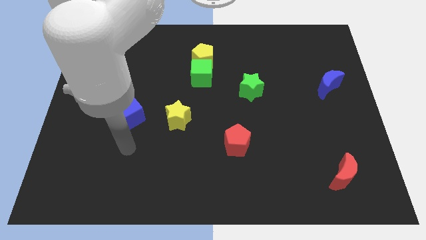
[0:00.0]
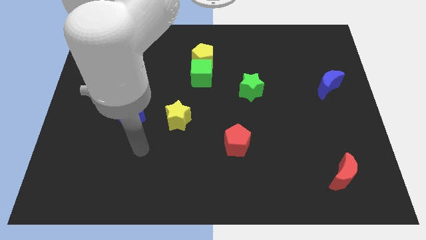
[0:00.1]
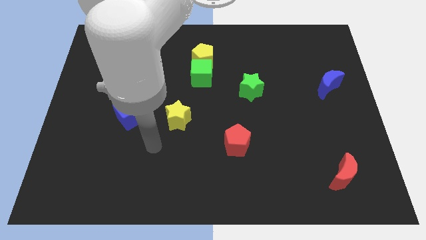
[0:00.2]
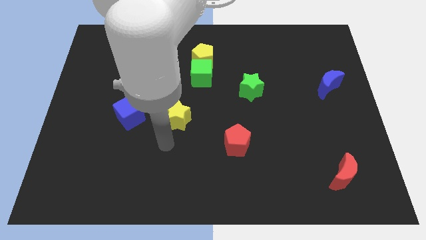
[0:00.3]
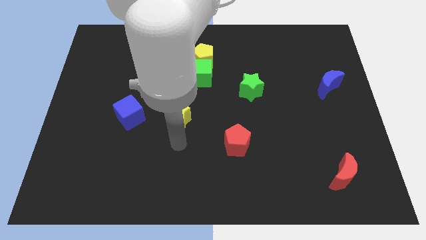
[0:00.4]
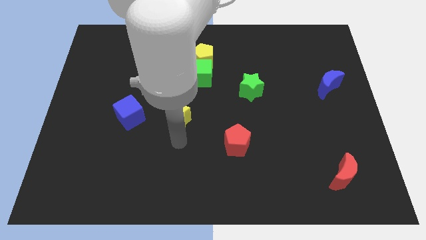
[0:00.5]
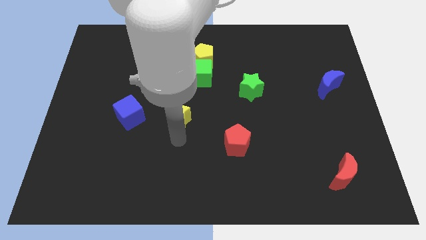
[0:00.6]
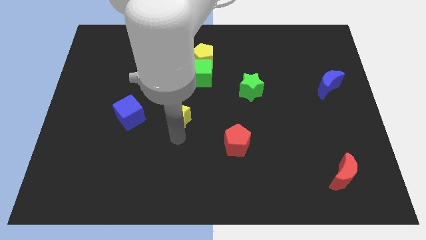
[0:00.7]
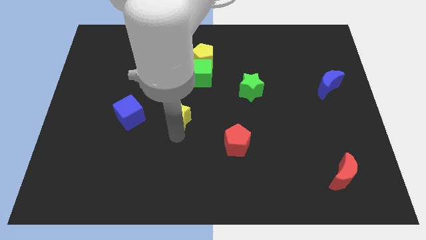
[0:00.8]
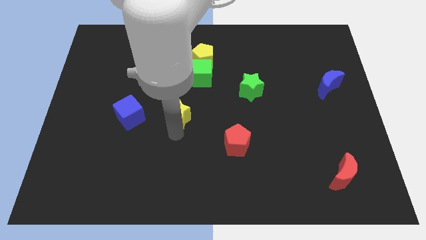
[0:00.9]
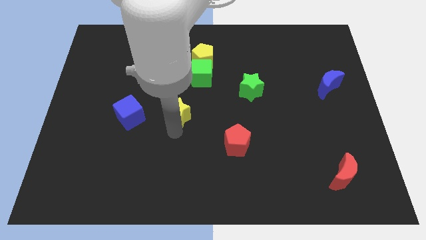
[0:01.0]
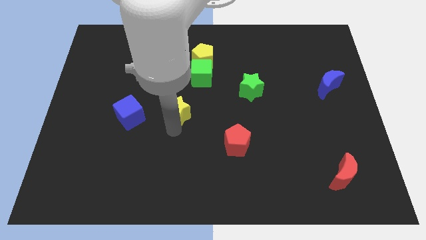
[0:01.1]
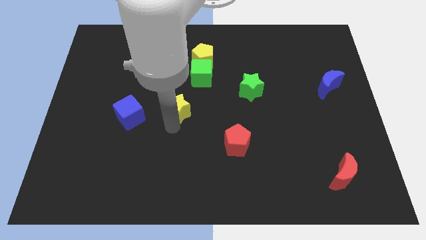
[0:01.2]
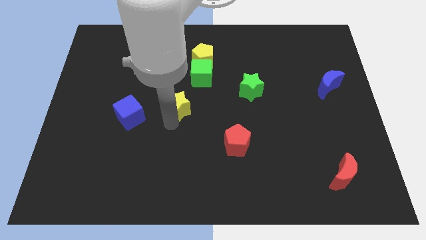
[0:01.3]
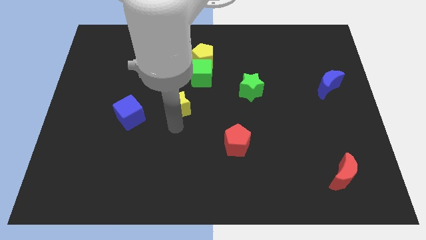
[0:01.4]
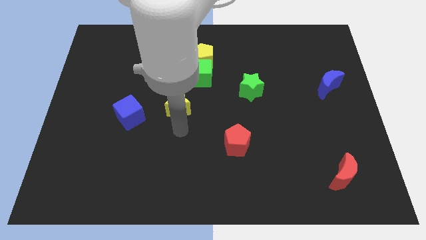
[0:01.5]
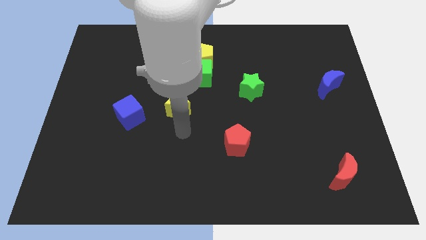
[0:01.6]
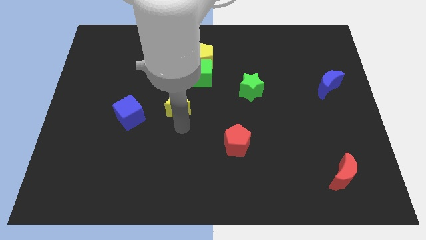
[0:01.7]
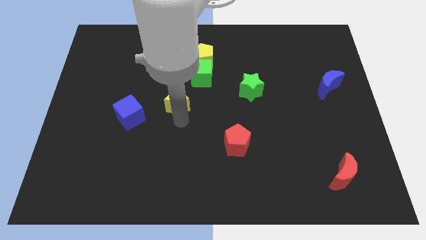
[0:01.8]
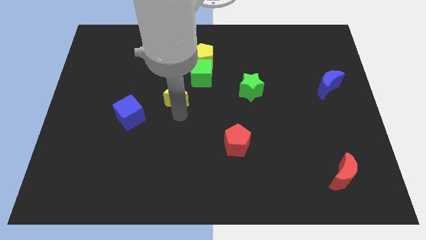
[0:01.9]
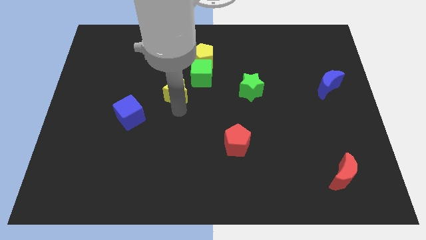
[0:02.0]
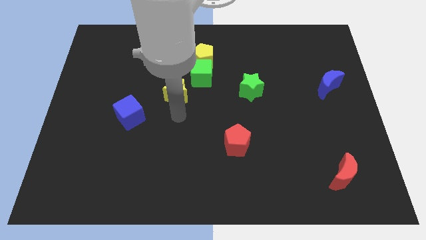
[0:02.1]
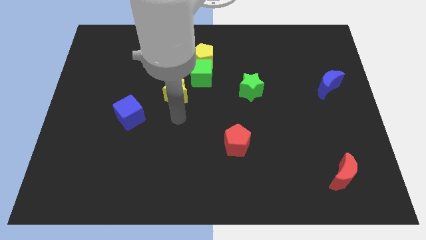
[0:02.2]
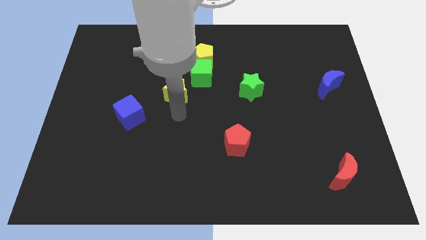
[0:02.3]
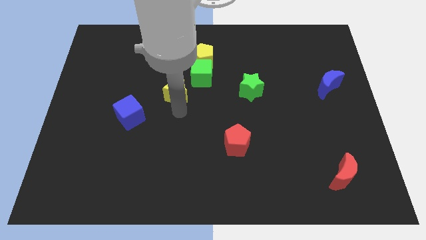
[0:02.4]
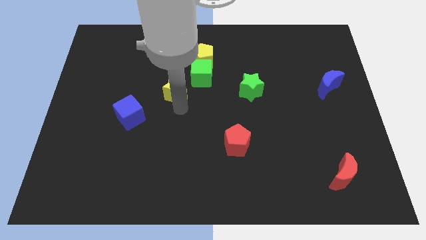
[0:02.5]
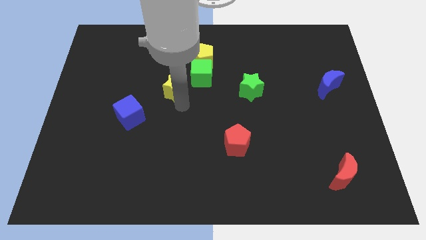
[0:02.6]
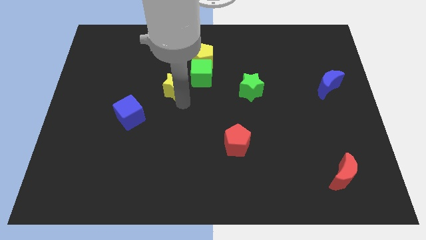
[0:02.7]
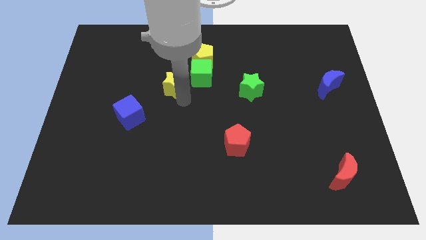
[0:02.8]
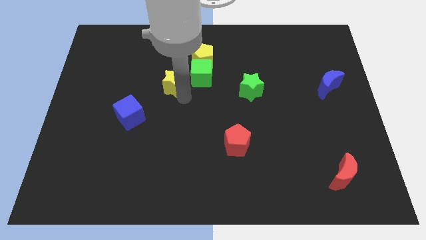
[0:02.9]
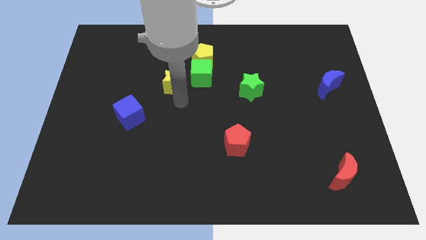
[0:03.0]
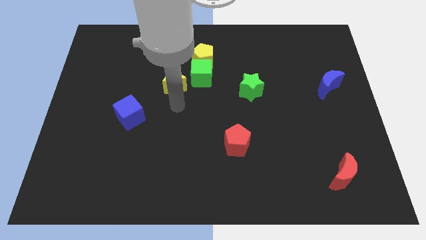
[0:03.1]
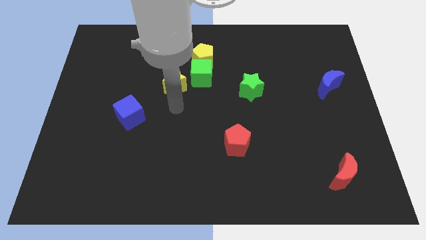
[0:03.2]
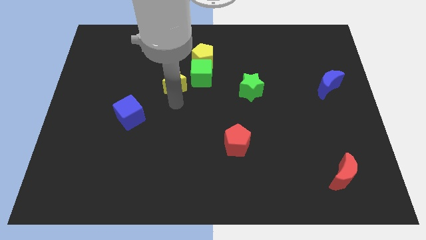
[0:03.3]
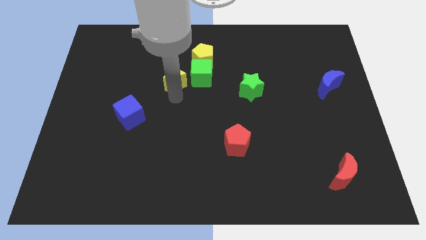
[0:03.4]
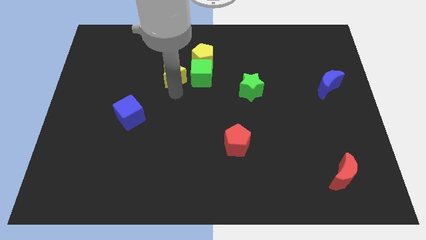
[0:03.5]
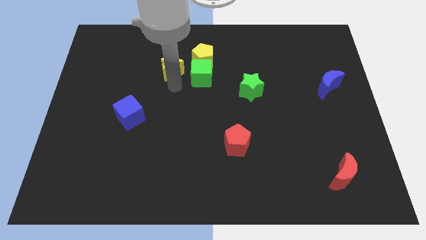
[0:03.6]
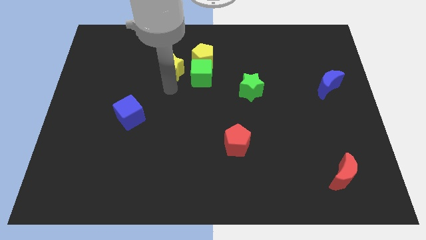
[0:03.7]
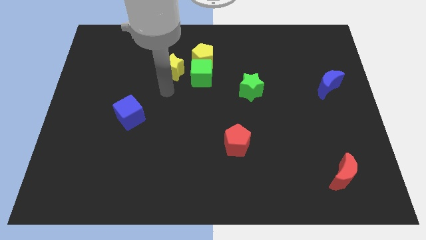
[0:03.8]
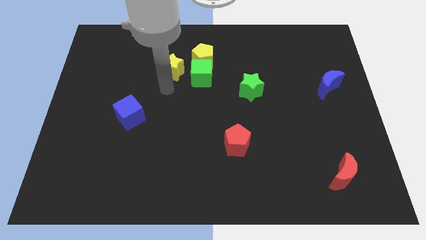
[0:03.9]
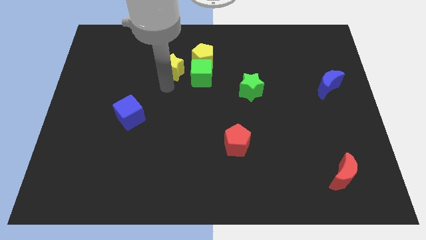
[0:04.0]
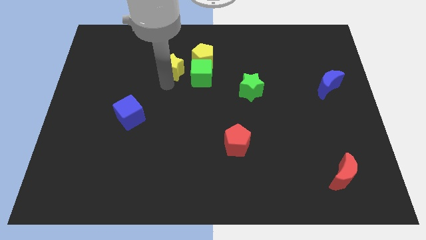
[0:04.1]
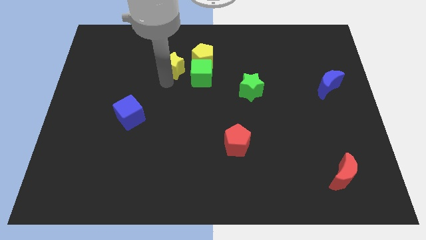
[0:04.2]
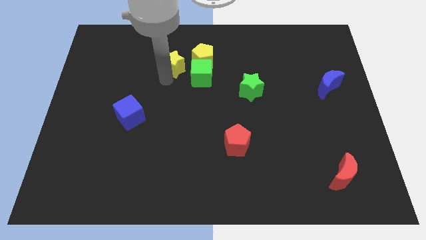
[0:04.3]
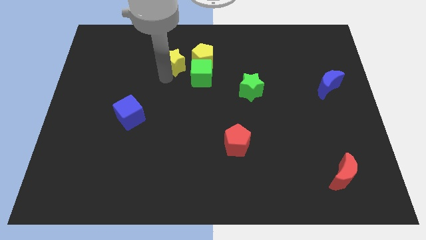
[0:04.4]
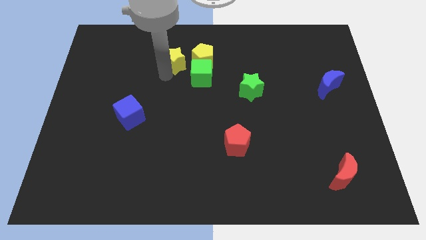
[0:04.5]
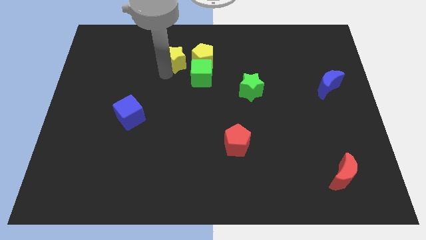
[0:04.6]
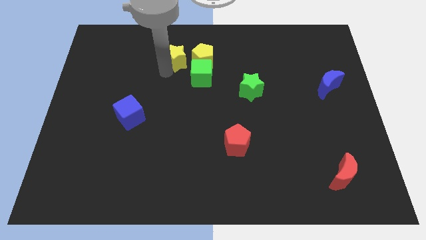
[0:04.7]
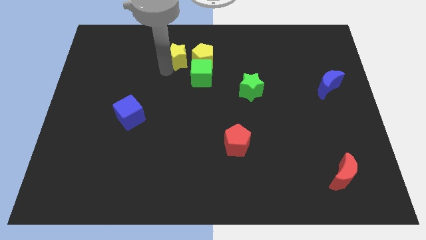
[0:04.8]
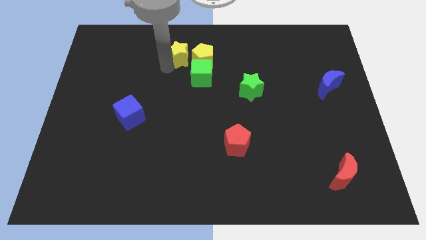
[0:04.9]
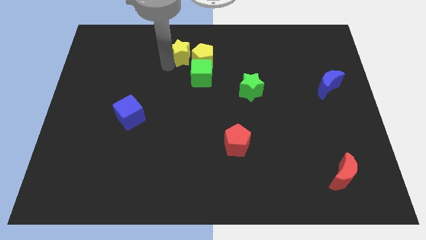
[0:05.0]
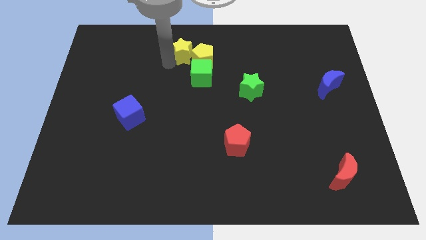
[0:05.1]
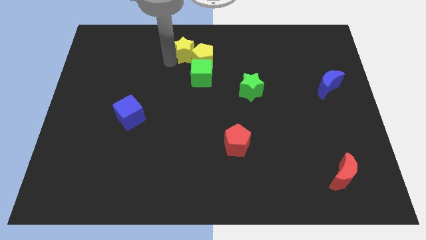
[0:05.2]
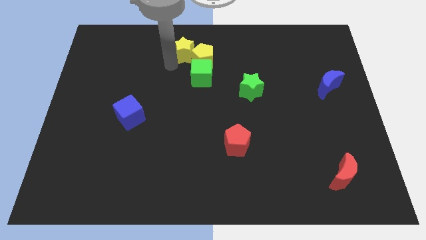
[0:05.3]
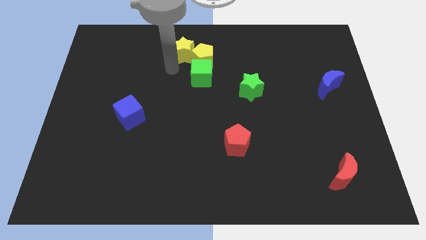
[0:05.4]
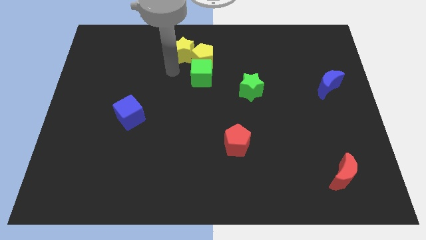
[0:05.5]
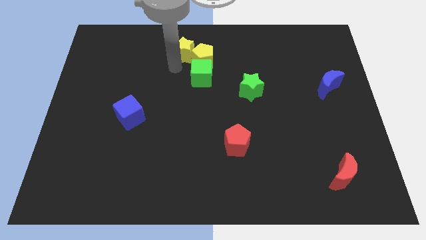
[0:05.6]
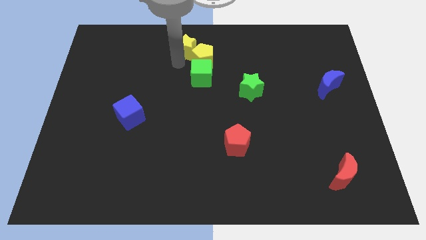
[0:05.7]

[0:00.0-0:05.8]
slide the yellow star to the top side

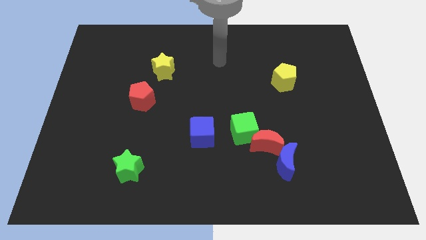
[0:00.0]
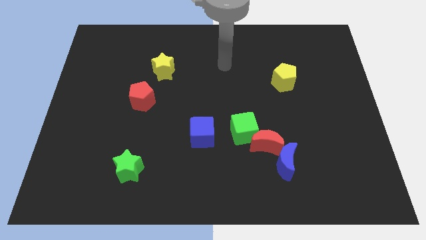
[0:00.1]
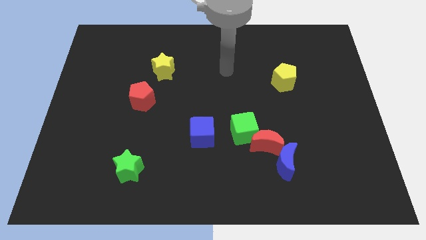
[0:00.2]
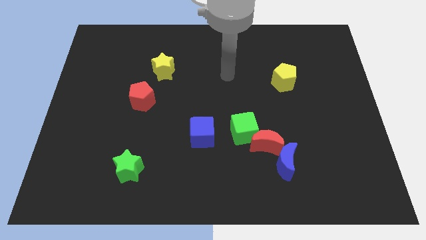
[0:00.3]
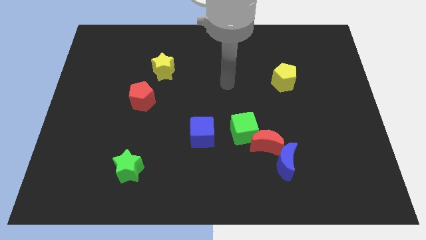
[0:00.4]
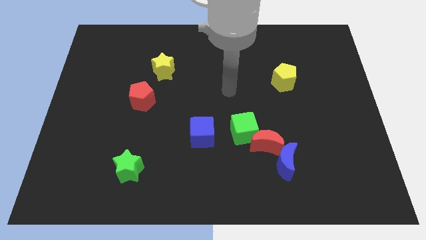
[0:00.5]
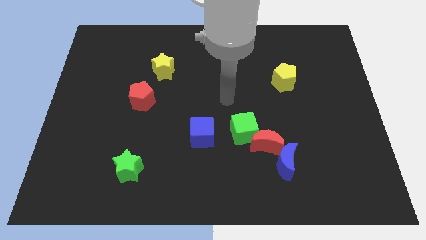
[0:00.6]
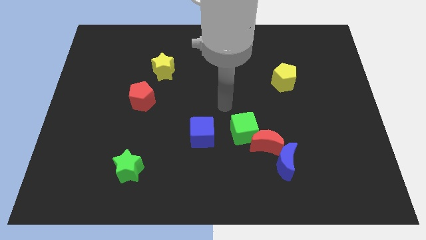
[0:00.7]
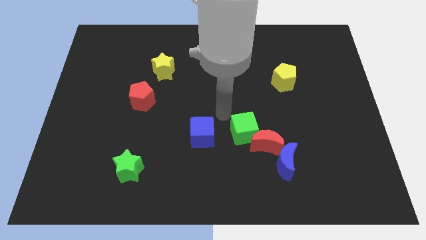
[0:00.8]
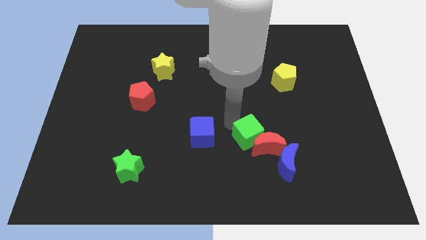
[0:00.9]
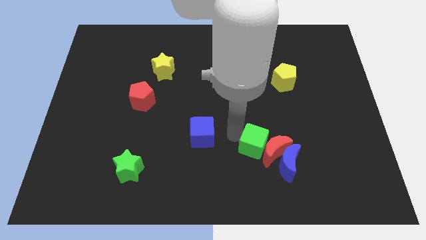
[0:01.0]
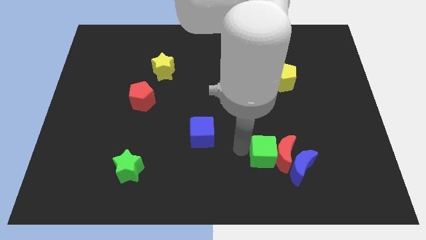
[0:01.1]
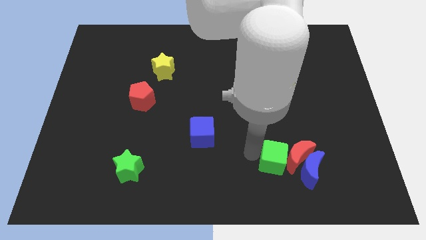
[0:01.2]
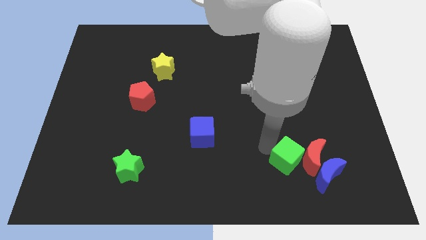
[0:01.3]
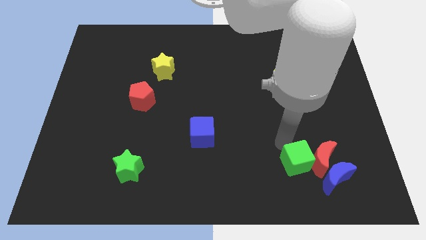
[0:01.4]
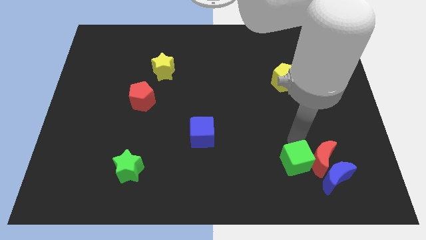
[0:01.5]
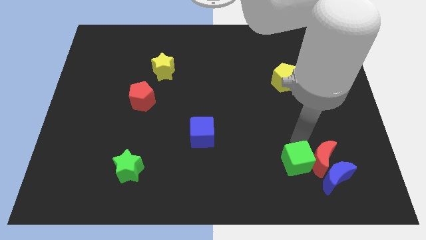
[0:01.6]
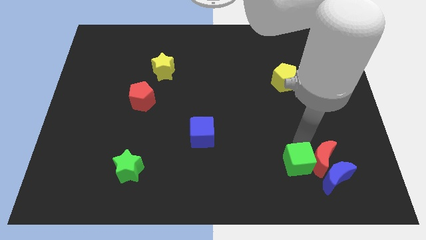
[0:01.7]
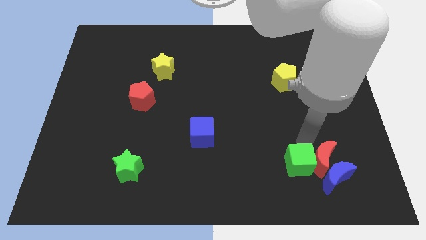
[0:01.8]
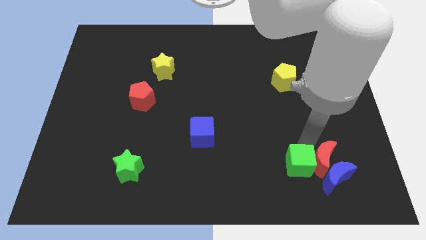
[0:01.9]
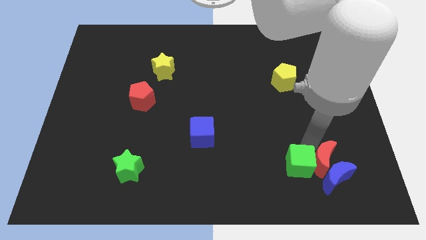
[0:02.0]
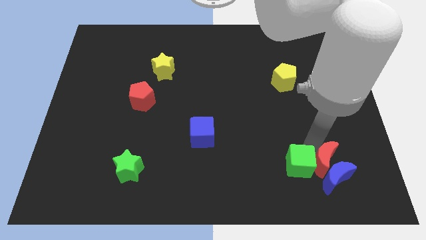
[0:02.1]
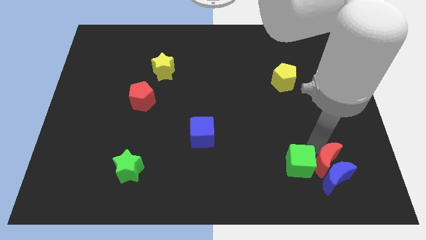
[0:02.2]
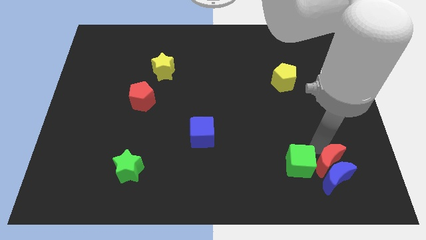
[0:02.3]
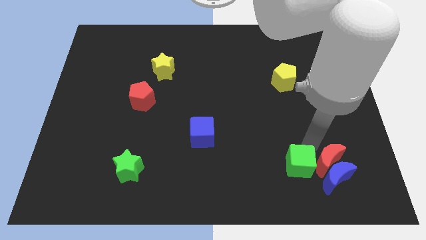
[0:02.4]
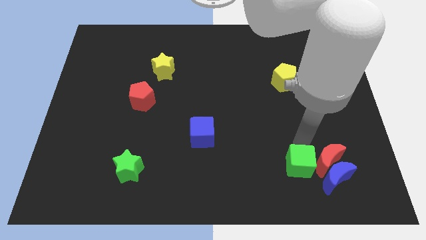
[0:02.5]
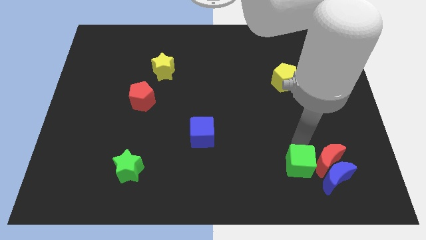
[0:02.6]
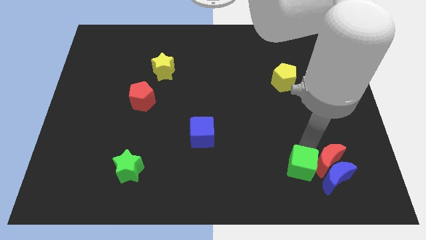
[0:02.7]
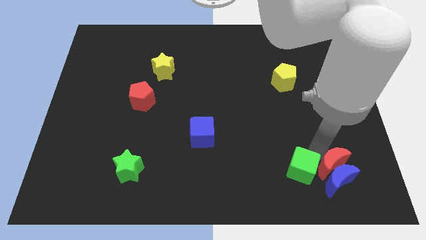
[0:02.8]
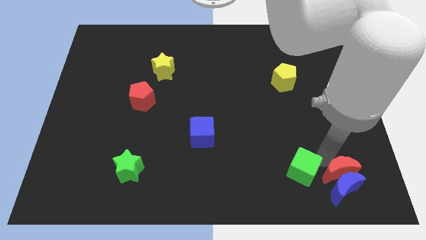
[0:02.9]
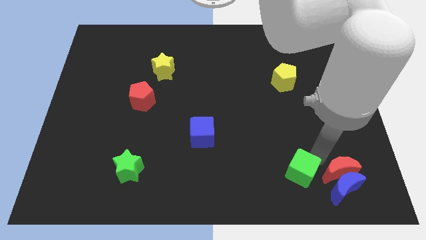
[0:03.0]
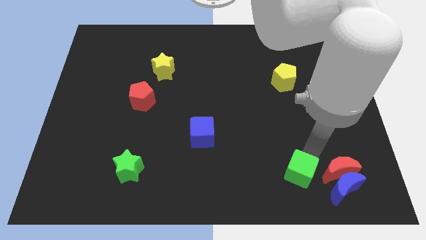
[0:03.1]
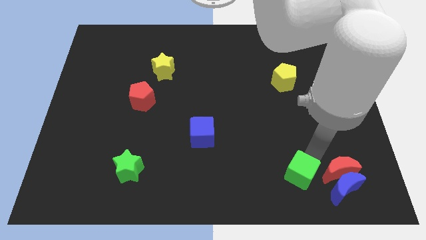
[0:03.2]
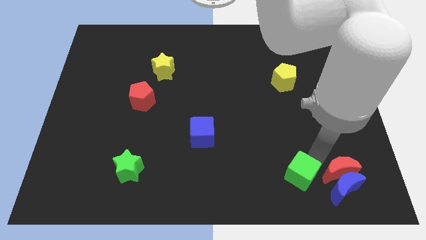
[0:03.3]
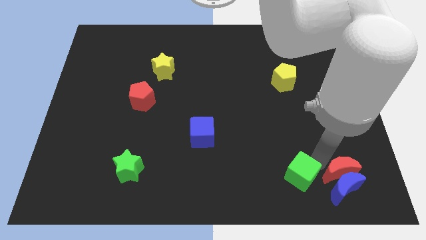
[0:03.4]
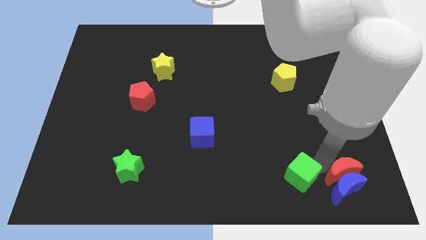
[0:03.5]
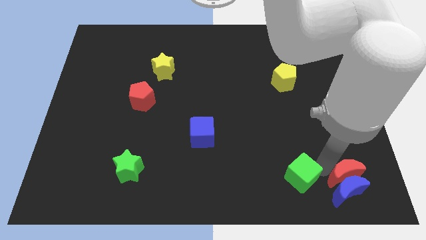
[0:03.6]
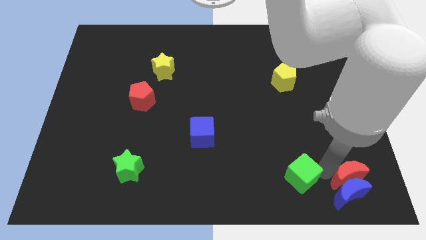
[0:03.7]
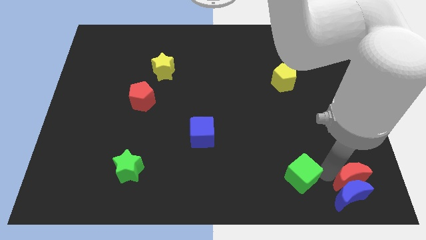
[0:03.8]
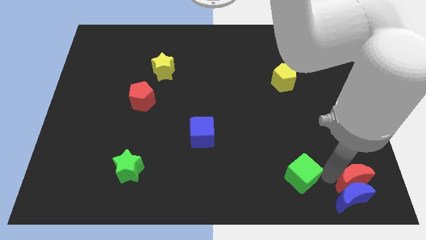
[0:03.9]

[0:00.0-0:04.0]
put the red moon to the lower right corner
